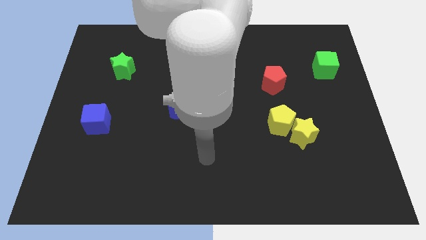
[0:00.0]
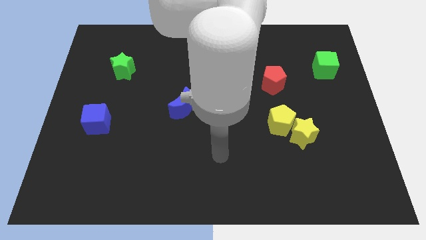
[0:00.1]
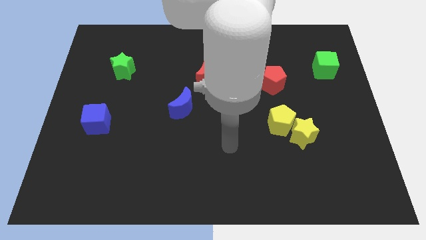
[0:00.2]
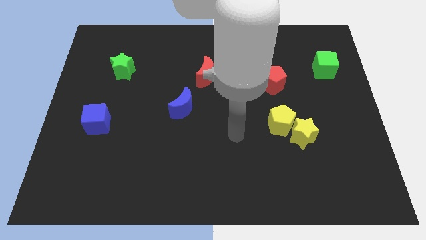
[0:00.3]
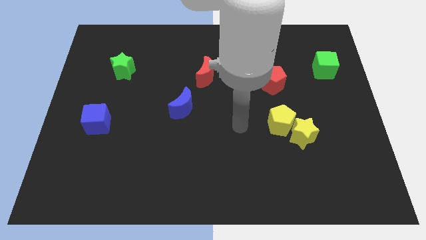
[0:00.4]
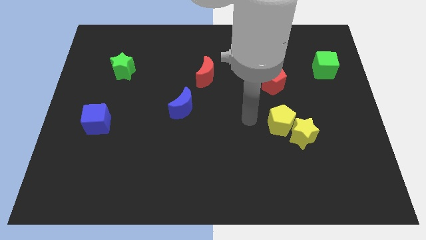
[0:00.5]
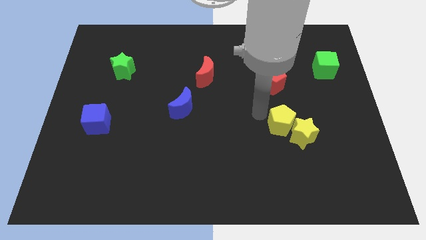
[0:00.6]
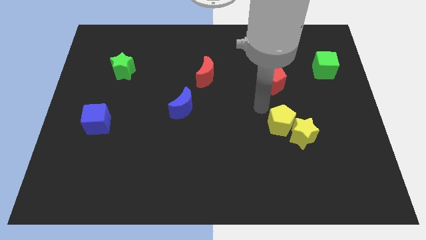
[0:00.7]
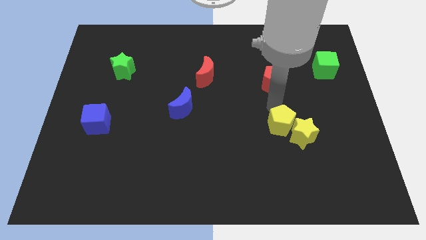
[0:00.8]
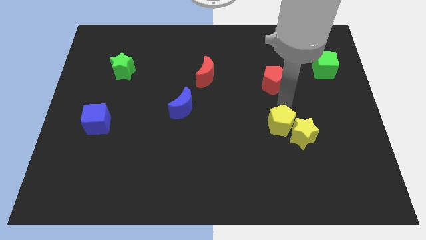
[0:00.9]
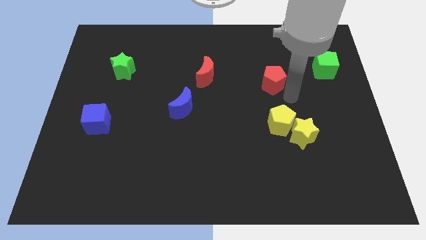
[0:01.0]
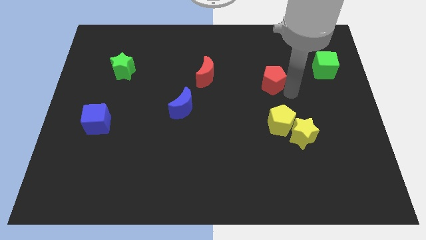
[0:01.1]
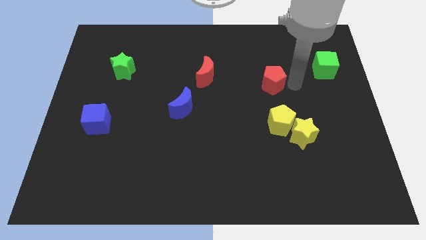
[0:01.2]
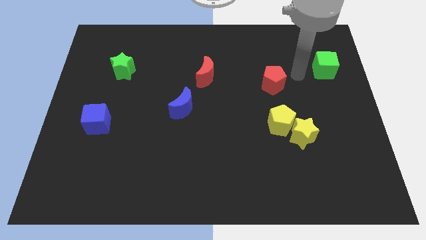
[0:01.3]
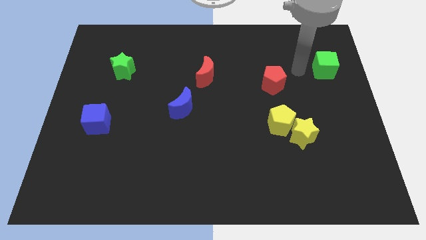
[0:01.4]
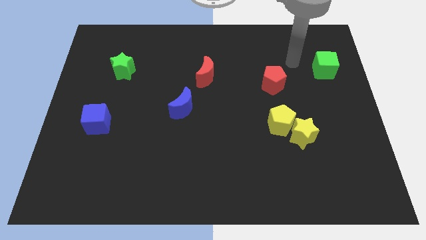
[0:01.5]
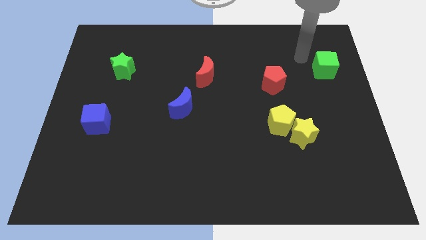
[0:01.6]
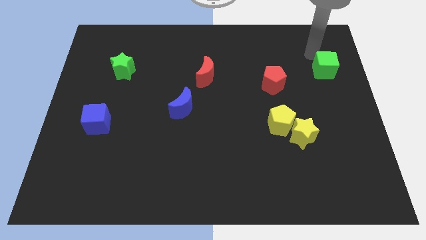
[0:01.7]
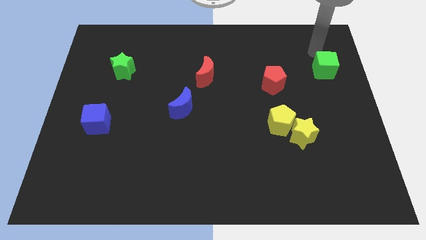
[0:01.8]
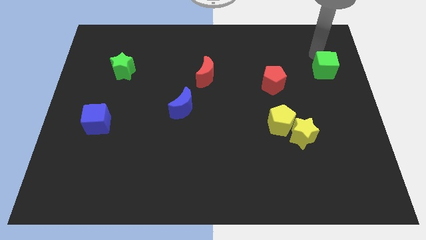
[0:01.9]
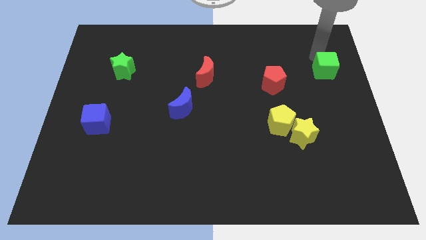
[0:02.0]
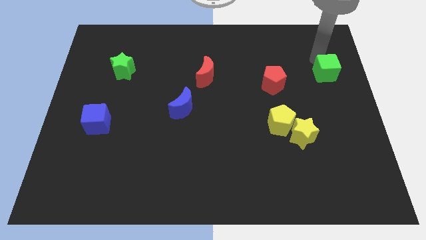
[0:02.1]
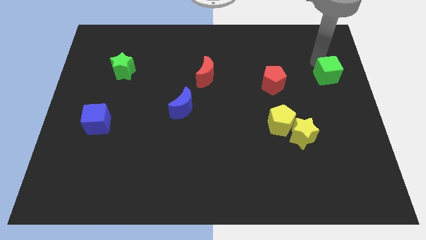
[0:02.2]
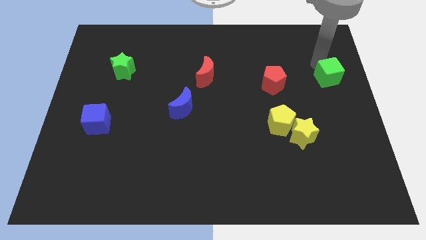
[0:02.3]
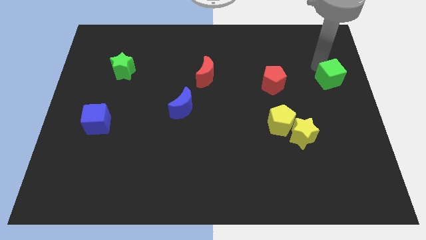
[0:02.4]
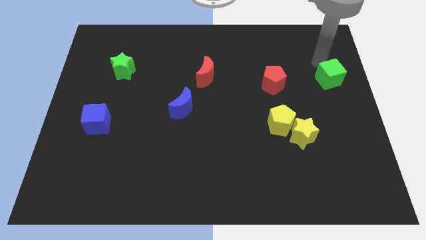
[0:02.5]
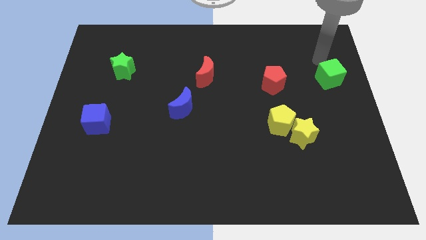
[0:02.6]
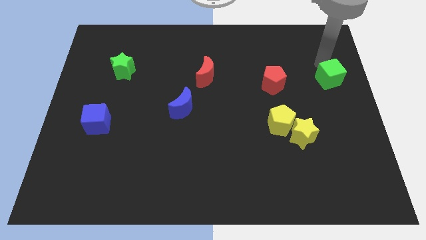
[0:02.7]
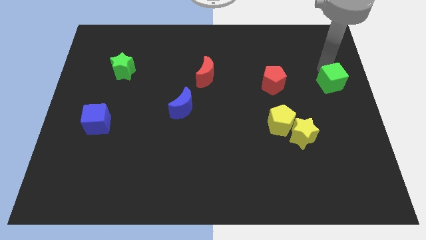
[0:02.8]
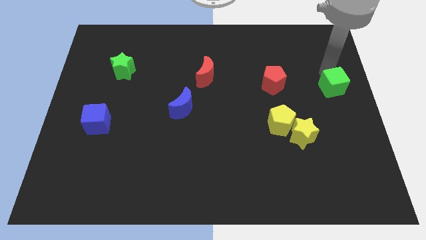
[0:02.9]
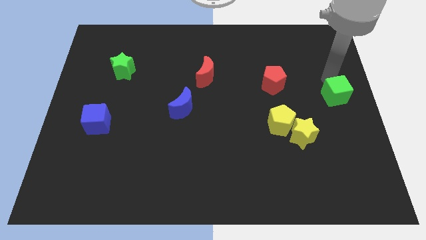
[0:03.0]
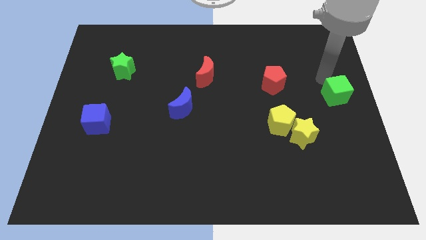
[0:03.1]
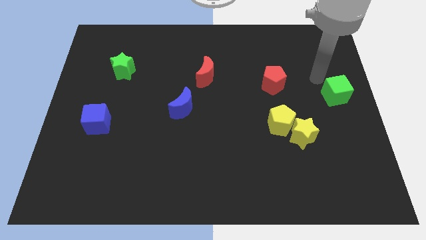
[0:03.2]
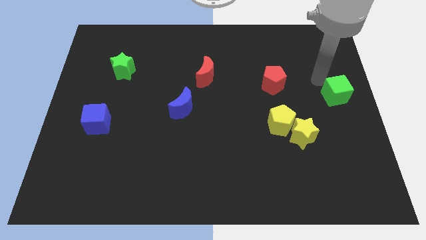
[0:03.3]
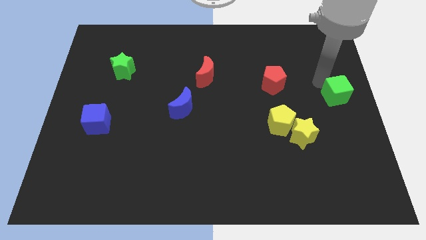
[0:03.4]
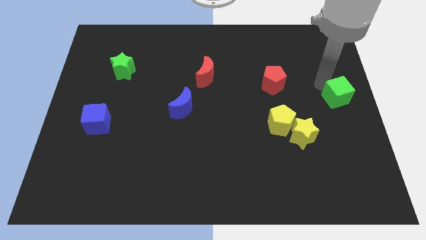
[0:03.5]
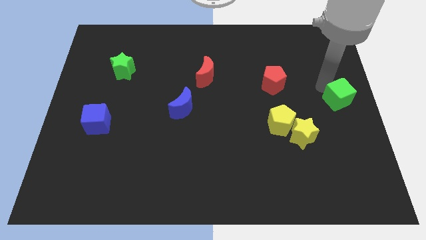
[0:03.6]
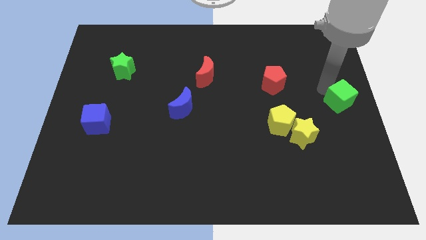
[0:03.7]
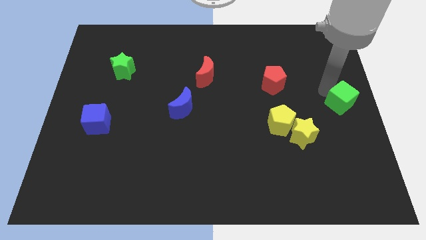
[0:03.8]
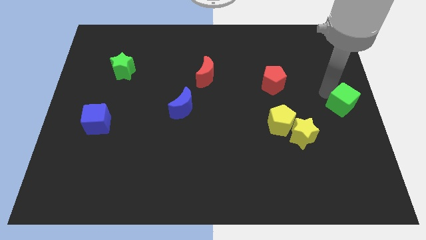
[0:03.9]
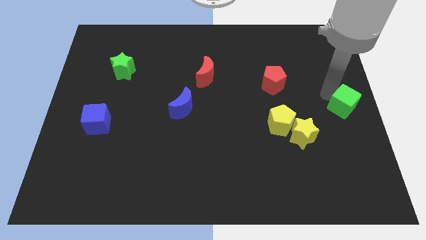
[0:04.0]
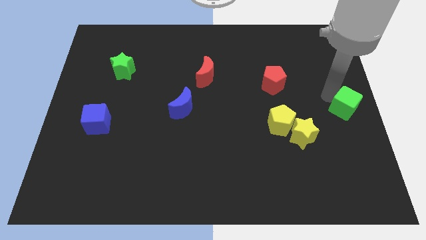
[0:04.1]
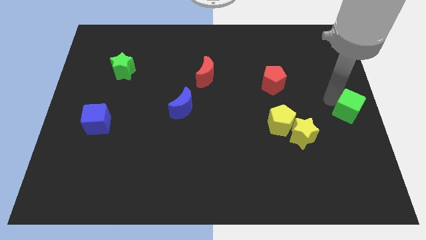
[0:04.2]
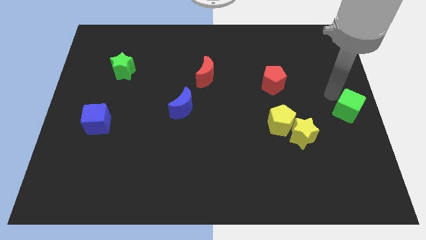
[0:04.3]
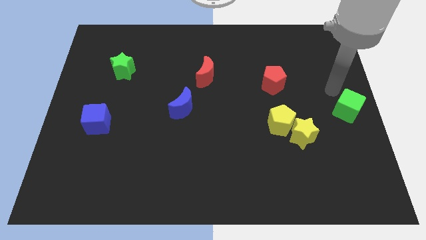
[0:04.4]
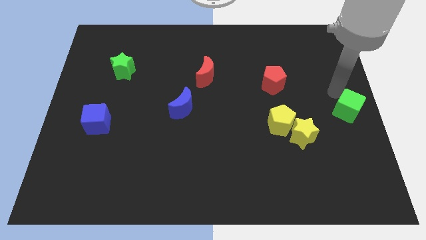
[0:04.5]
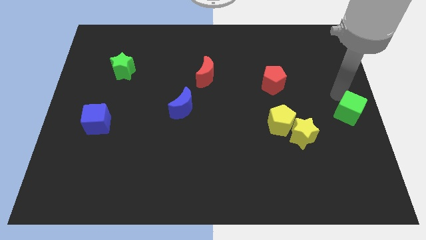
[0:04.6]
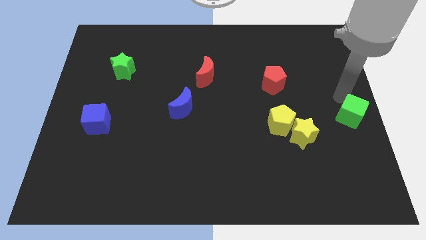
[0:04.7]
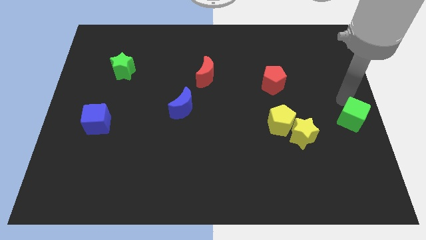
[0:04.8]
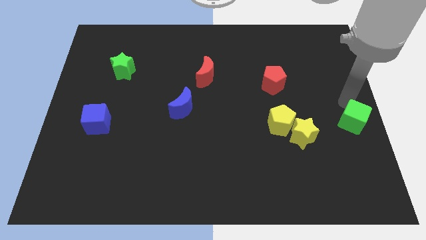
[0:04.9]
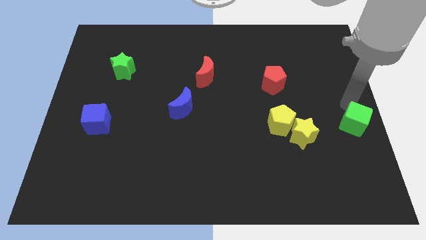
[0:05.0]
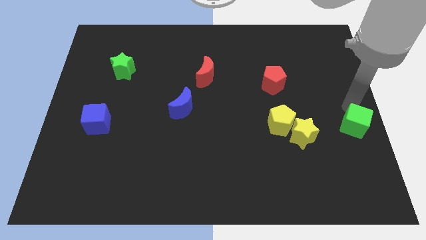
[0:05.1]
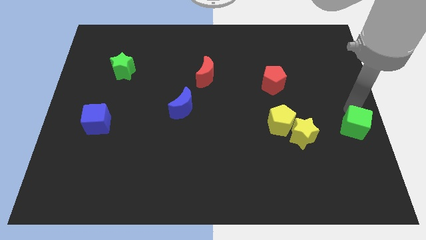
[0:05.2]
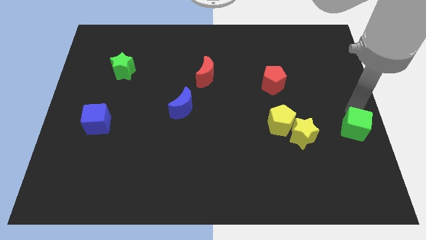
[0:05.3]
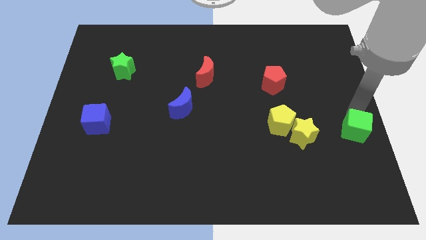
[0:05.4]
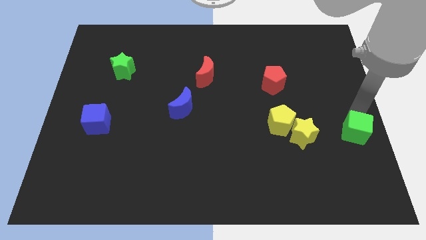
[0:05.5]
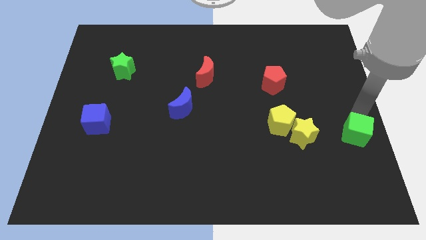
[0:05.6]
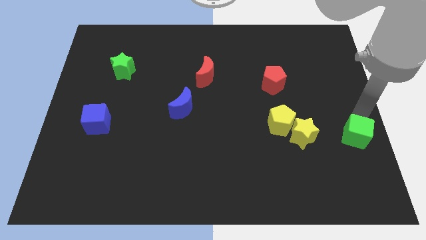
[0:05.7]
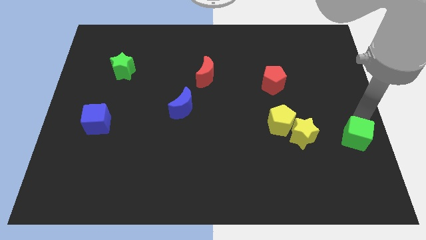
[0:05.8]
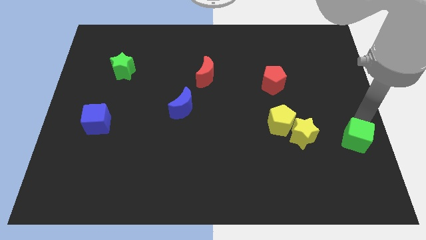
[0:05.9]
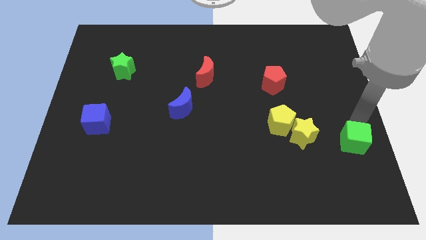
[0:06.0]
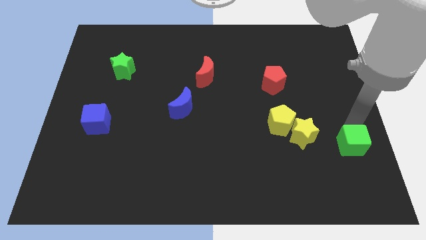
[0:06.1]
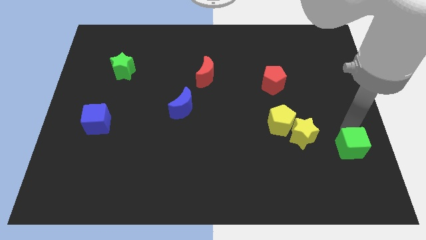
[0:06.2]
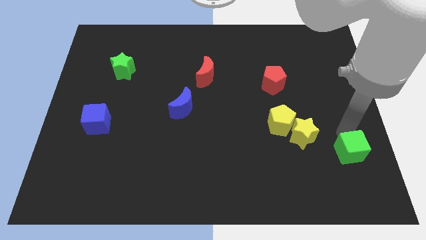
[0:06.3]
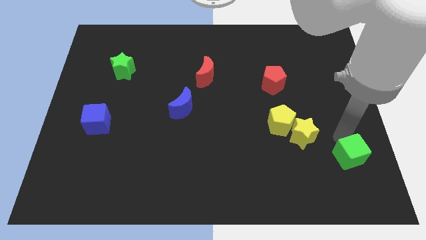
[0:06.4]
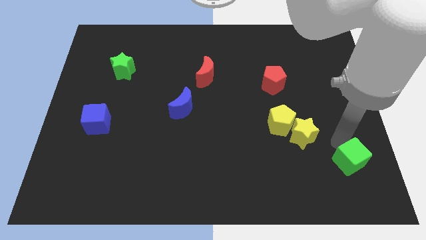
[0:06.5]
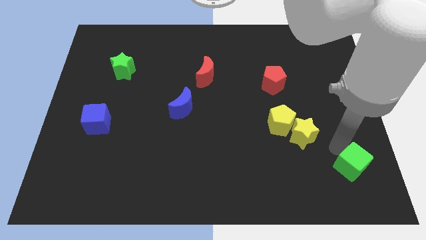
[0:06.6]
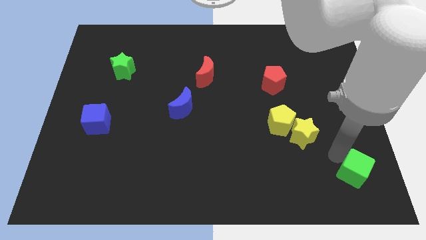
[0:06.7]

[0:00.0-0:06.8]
put the green cube to the bottom right corner
